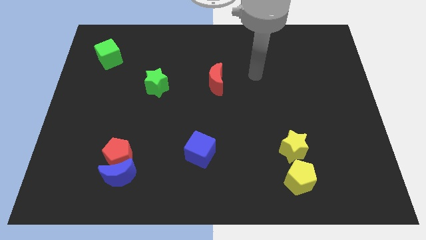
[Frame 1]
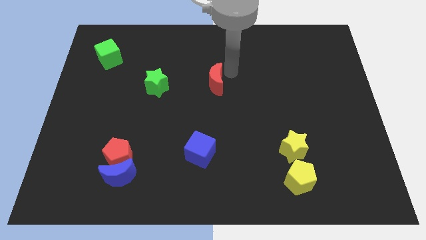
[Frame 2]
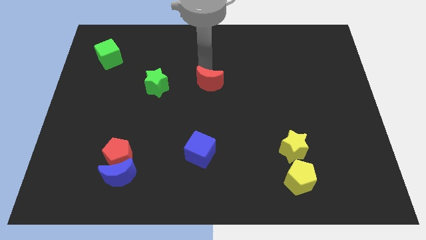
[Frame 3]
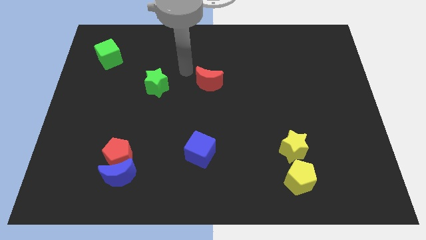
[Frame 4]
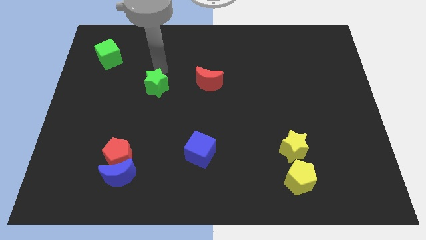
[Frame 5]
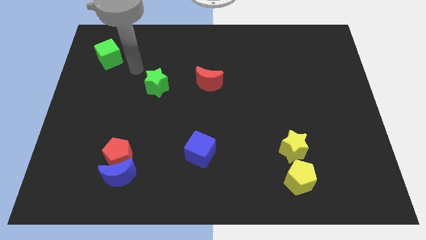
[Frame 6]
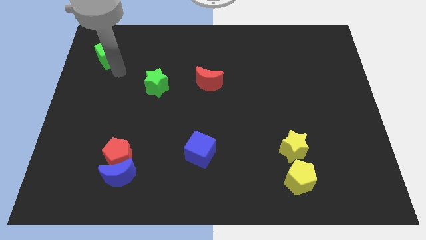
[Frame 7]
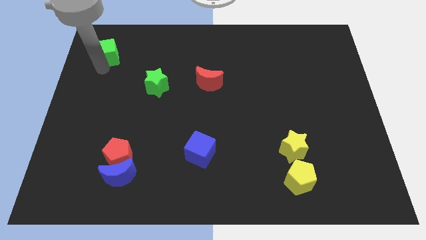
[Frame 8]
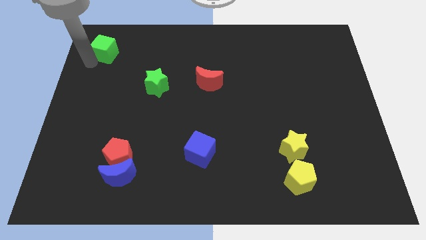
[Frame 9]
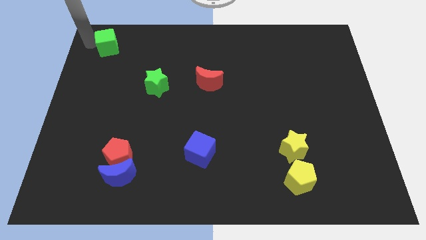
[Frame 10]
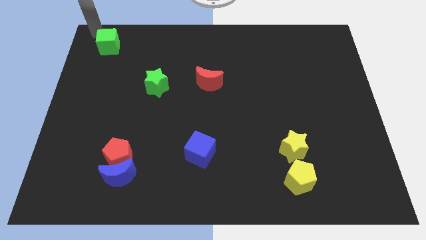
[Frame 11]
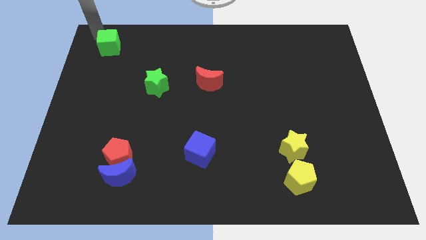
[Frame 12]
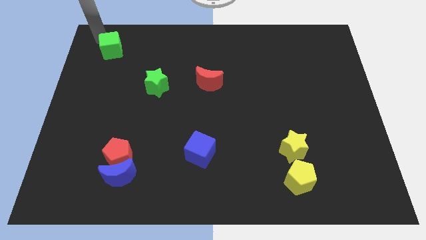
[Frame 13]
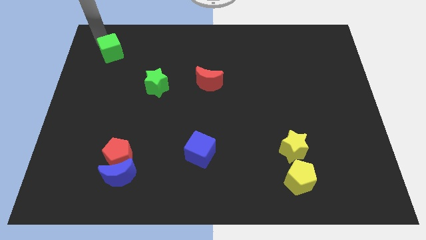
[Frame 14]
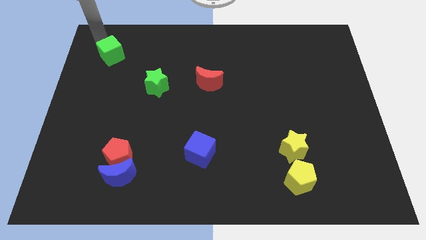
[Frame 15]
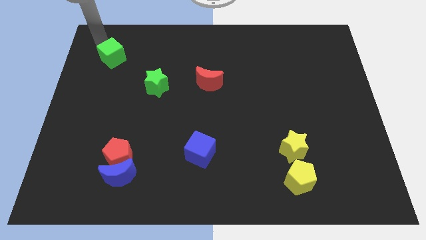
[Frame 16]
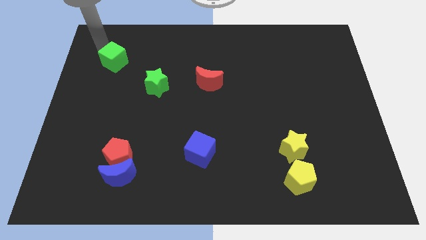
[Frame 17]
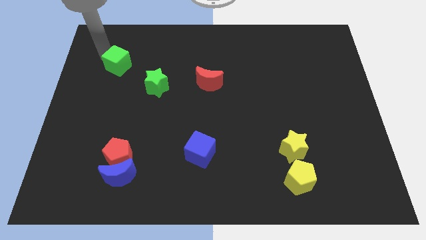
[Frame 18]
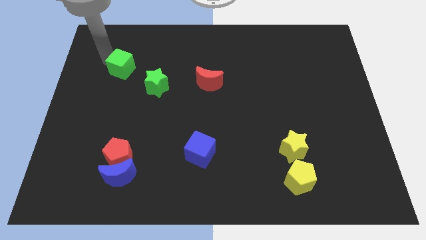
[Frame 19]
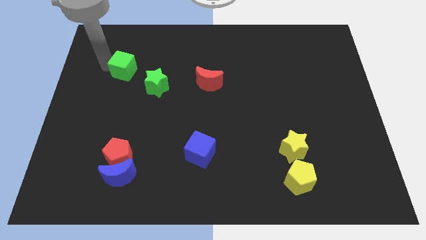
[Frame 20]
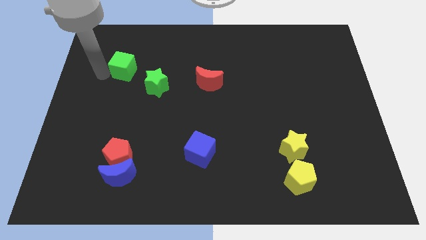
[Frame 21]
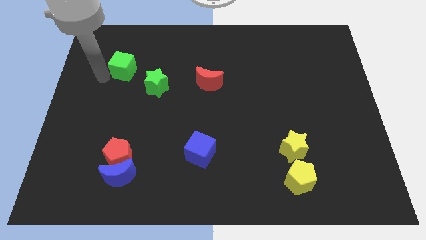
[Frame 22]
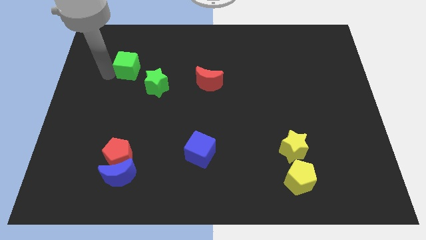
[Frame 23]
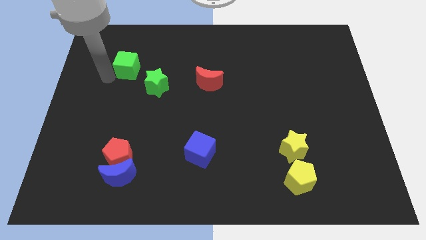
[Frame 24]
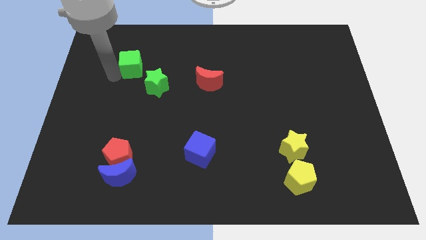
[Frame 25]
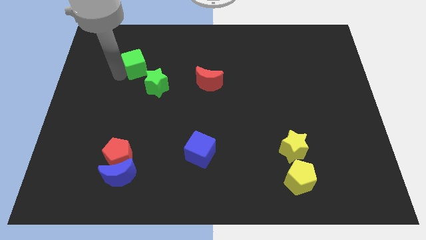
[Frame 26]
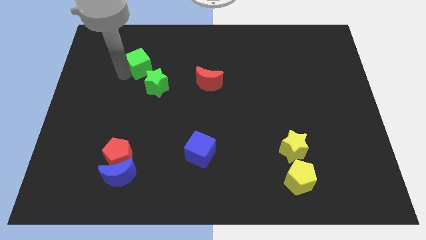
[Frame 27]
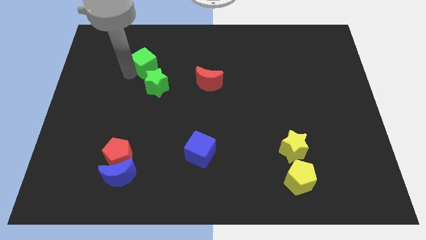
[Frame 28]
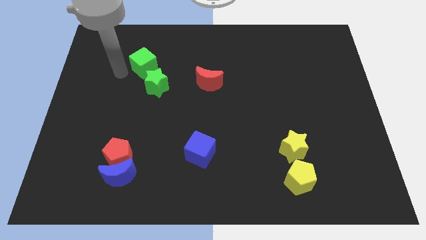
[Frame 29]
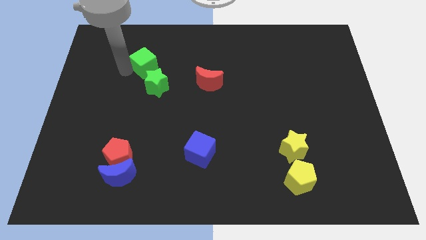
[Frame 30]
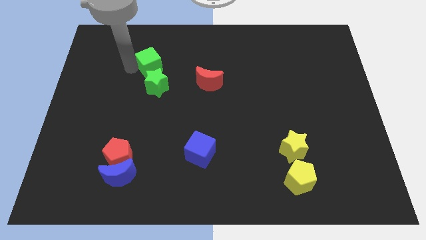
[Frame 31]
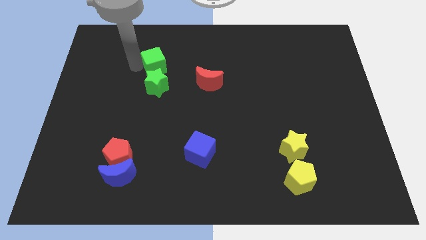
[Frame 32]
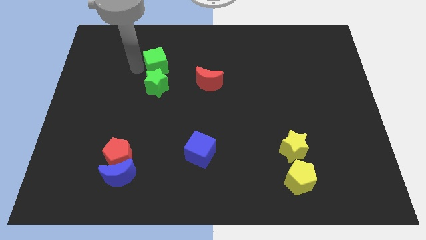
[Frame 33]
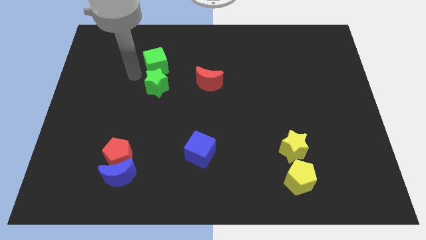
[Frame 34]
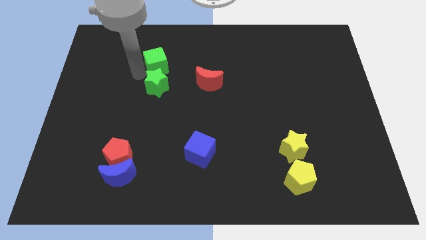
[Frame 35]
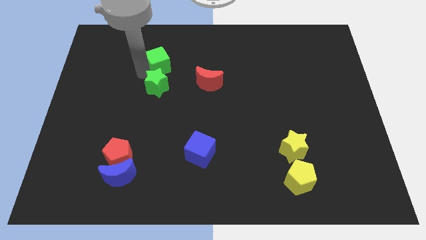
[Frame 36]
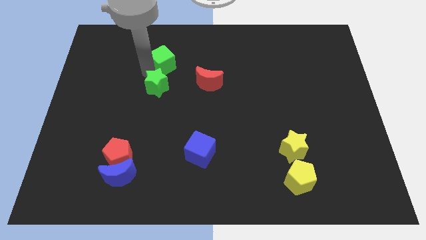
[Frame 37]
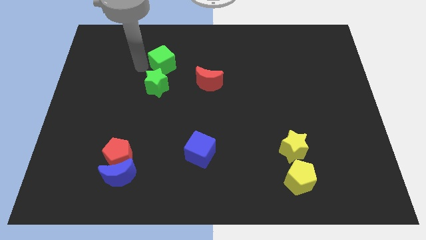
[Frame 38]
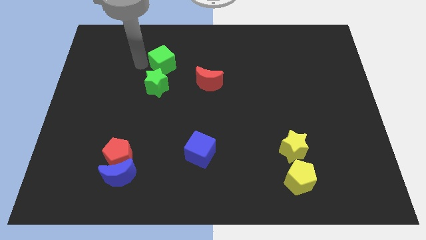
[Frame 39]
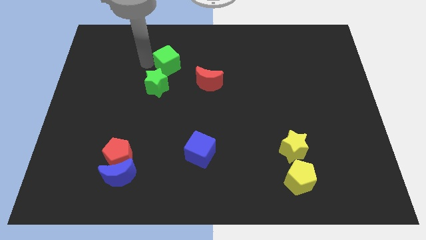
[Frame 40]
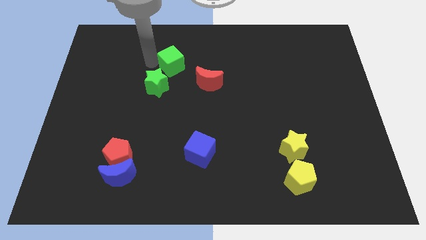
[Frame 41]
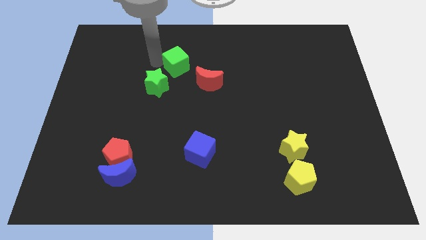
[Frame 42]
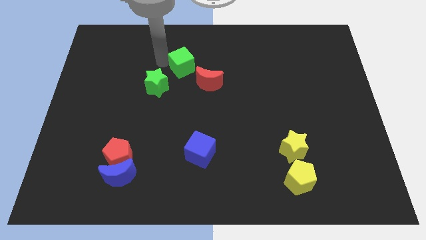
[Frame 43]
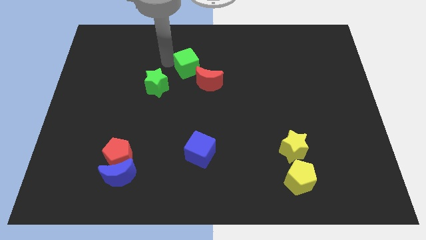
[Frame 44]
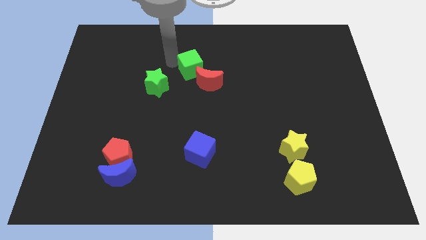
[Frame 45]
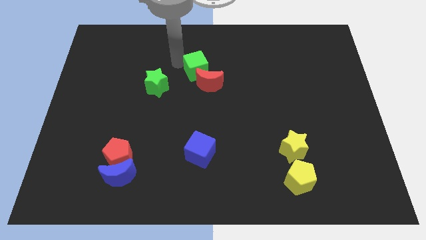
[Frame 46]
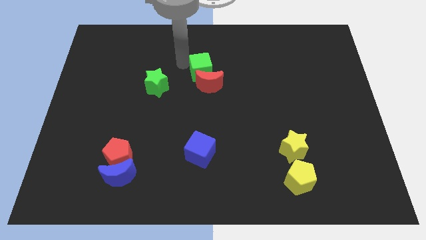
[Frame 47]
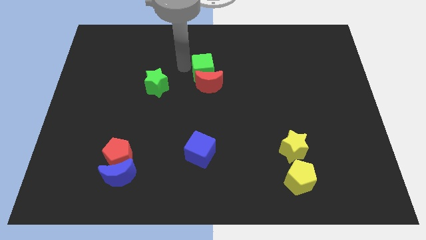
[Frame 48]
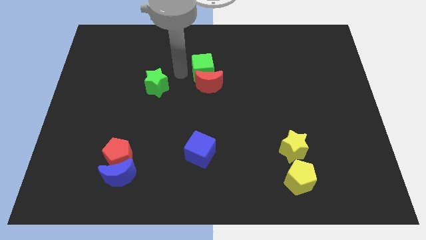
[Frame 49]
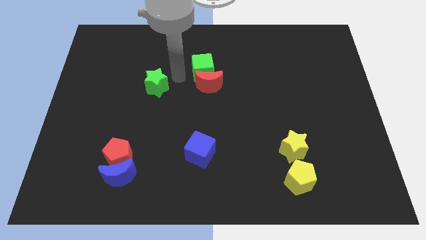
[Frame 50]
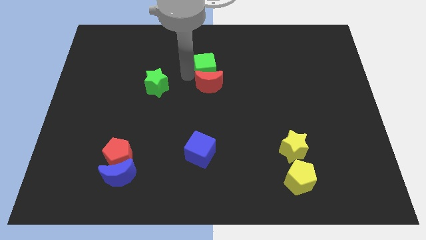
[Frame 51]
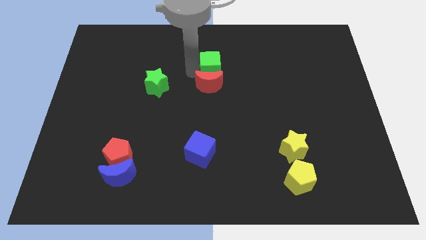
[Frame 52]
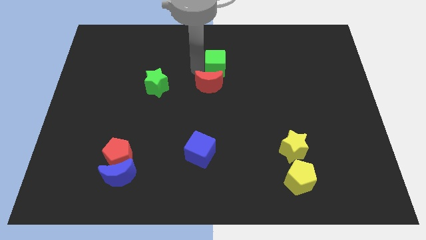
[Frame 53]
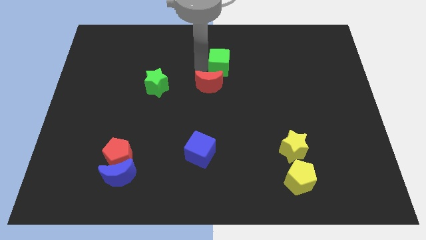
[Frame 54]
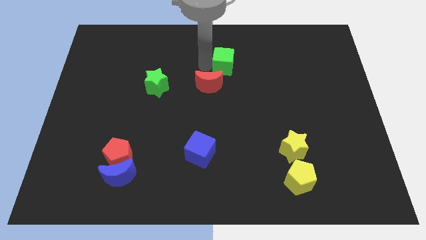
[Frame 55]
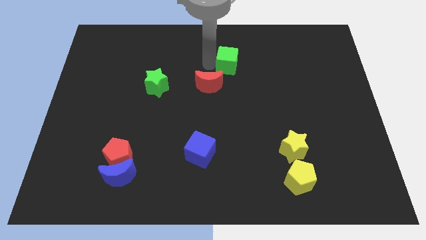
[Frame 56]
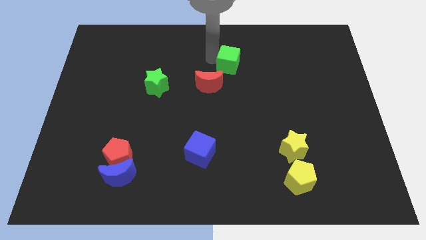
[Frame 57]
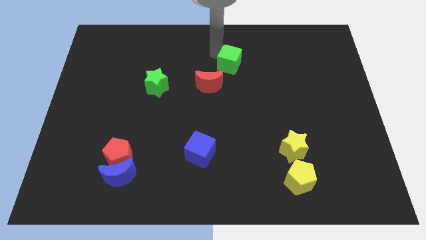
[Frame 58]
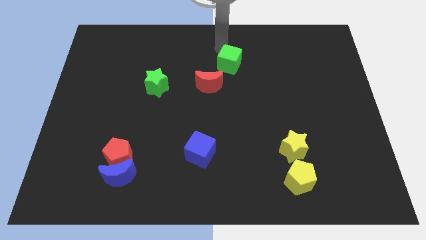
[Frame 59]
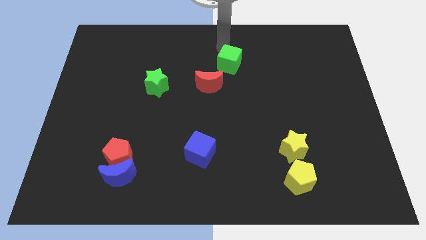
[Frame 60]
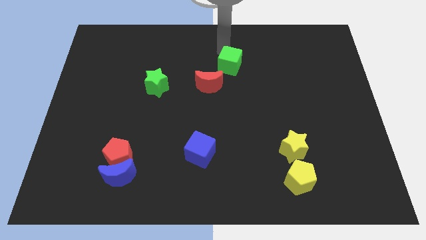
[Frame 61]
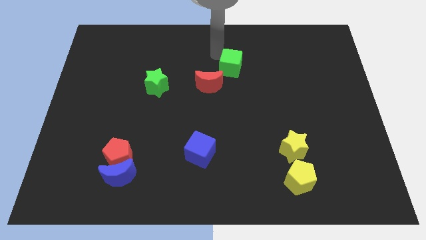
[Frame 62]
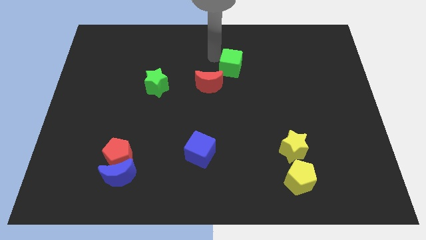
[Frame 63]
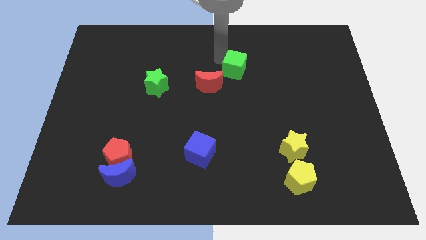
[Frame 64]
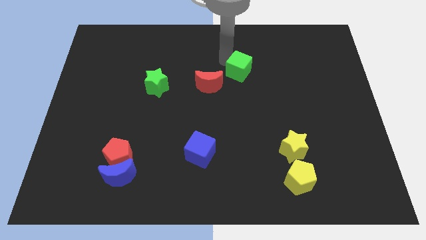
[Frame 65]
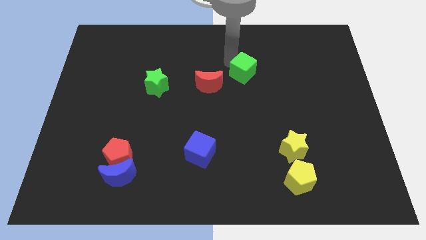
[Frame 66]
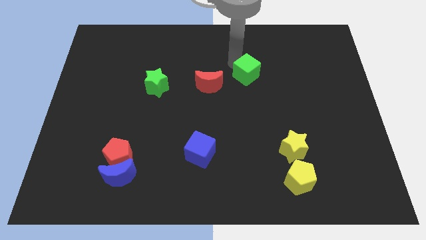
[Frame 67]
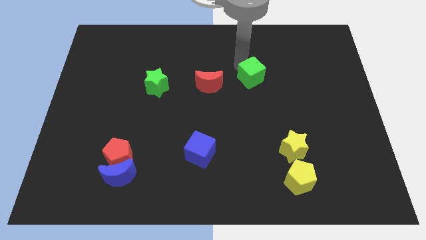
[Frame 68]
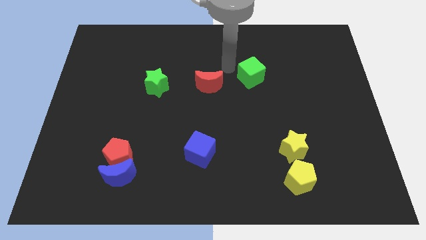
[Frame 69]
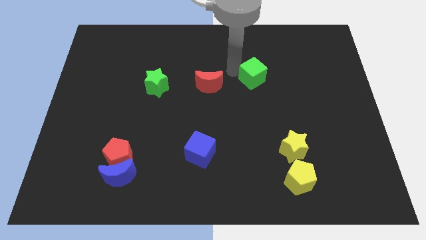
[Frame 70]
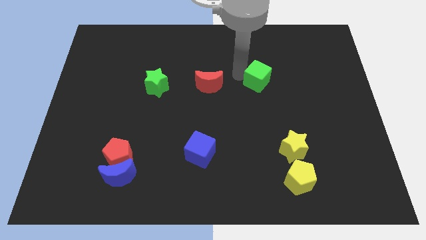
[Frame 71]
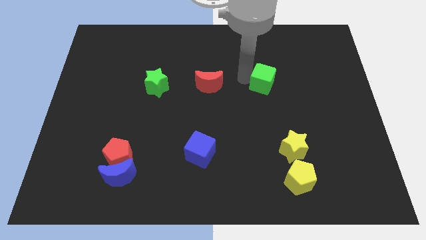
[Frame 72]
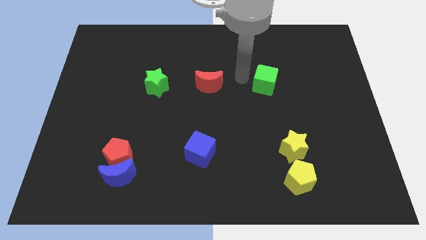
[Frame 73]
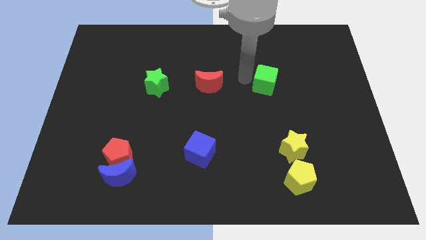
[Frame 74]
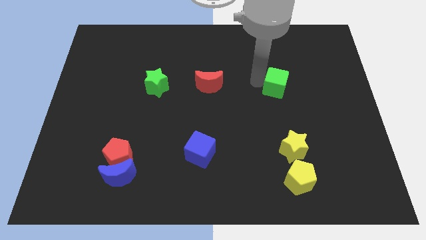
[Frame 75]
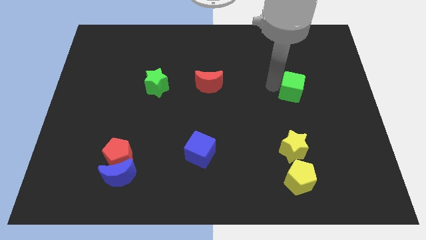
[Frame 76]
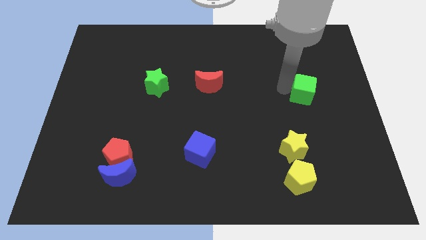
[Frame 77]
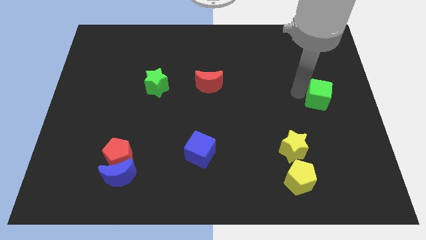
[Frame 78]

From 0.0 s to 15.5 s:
slide the green cube to the center right
